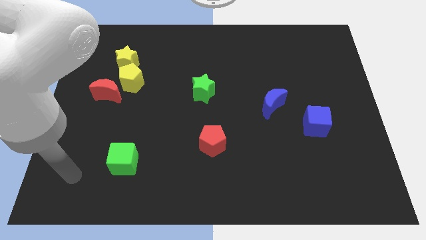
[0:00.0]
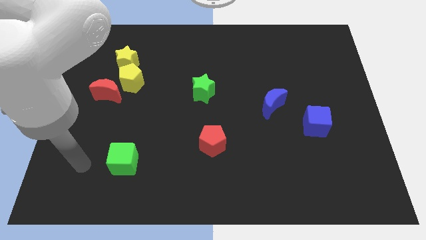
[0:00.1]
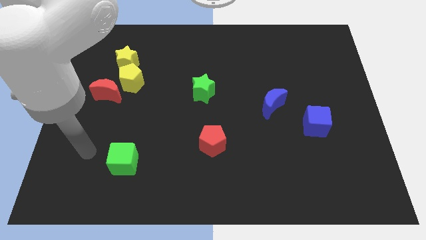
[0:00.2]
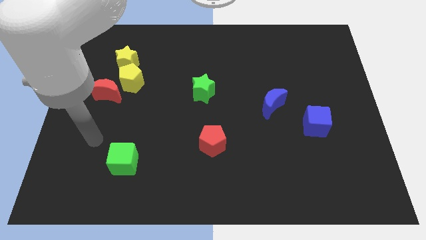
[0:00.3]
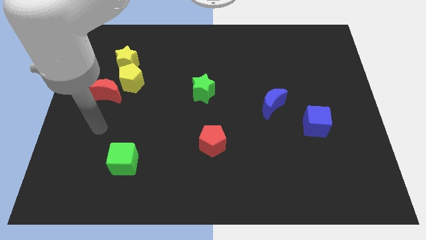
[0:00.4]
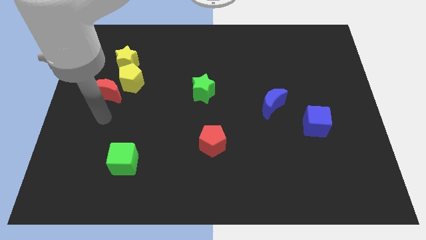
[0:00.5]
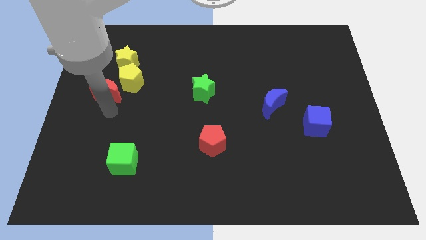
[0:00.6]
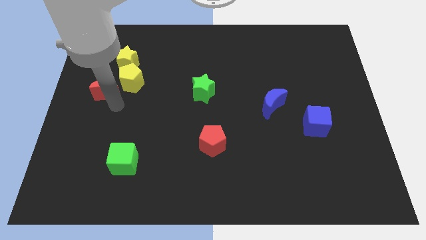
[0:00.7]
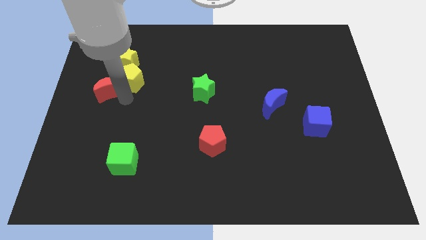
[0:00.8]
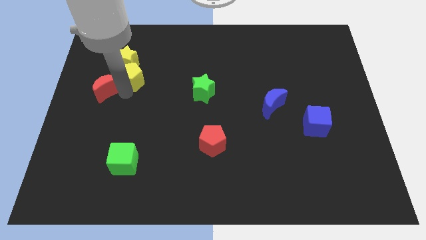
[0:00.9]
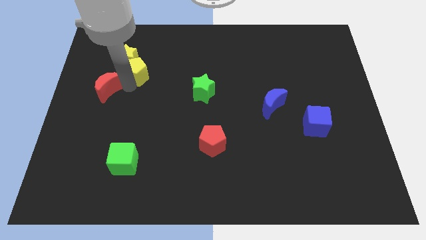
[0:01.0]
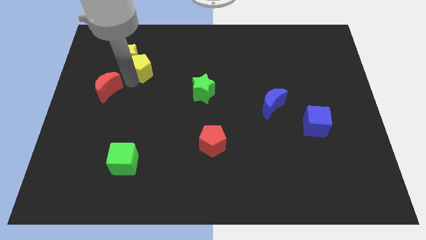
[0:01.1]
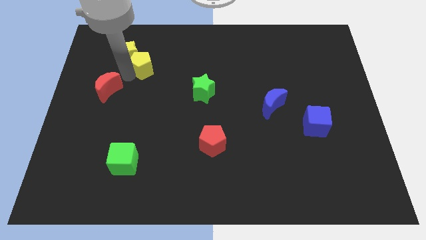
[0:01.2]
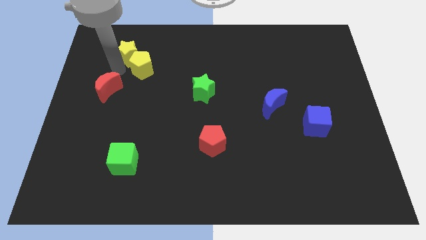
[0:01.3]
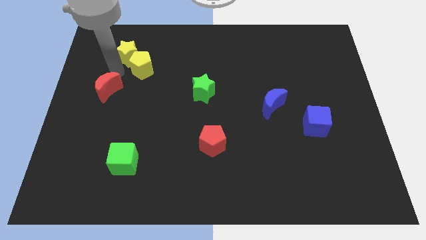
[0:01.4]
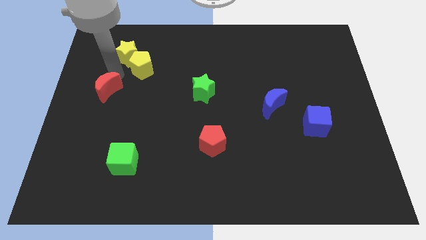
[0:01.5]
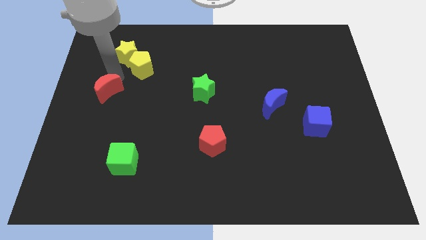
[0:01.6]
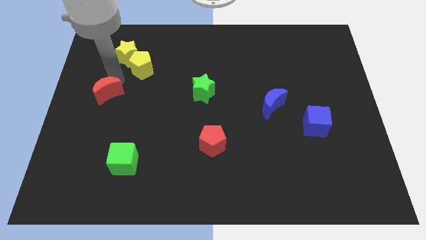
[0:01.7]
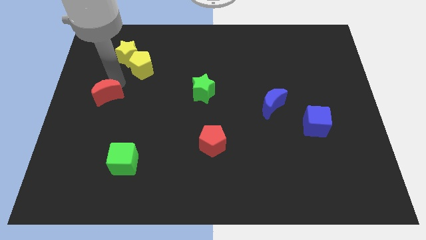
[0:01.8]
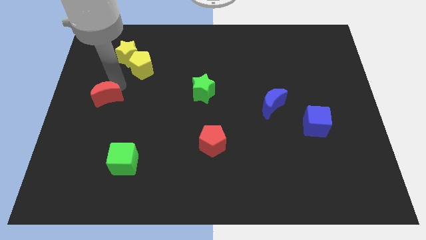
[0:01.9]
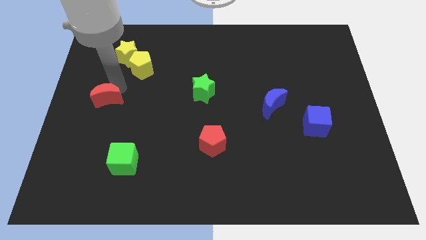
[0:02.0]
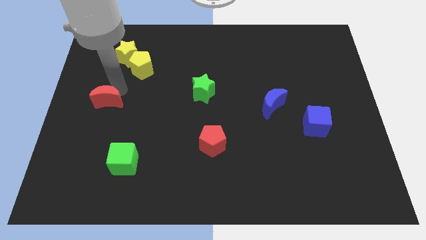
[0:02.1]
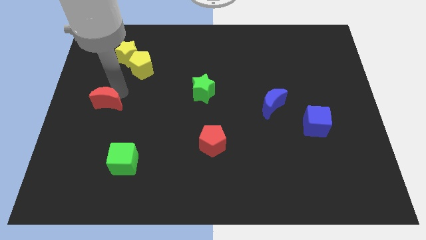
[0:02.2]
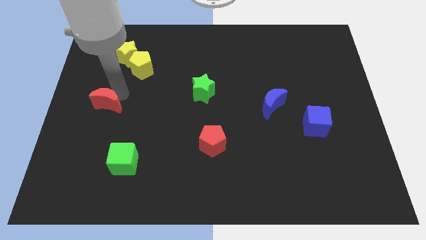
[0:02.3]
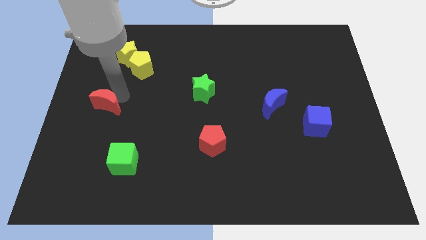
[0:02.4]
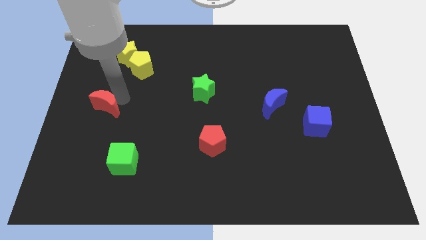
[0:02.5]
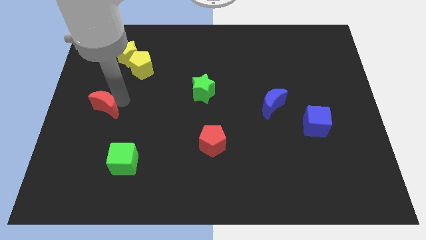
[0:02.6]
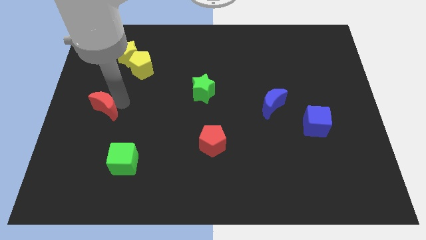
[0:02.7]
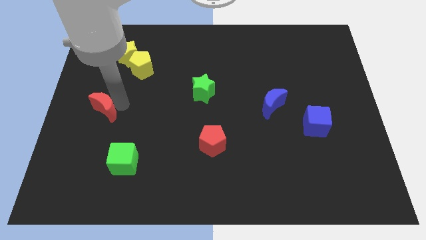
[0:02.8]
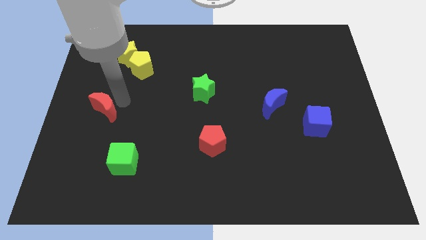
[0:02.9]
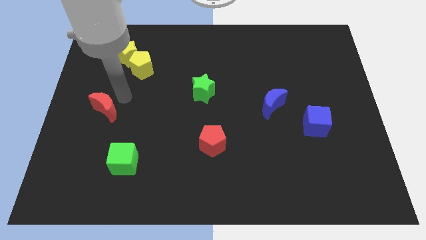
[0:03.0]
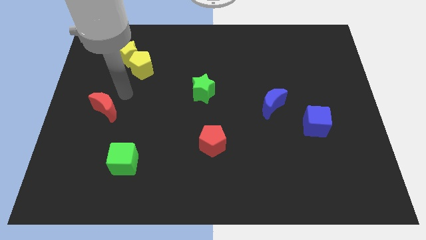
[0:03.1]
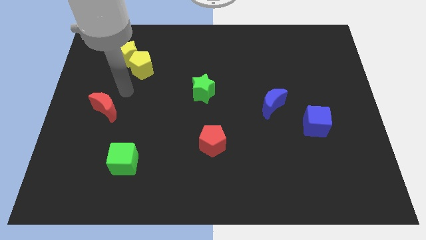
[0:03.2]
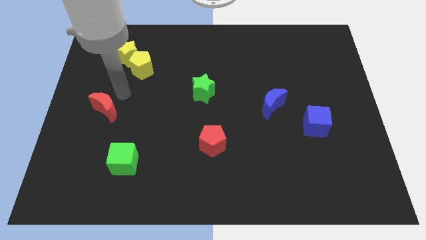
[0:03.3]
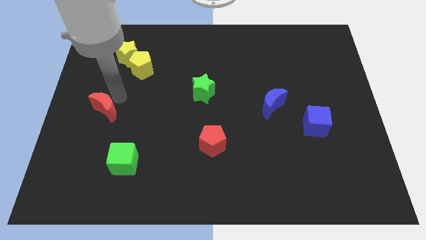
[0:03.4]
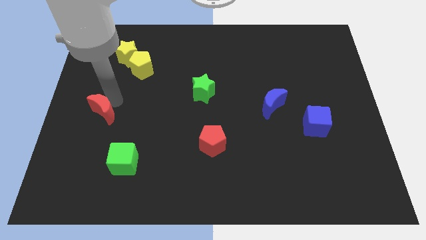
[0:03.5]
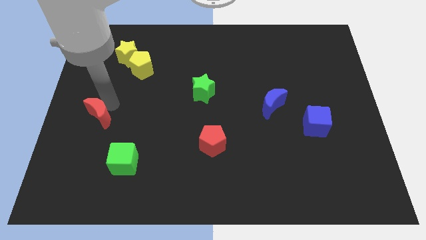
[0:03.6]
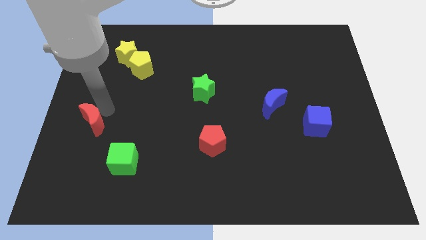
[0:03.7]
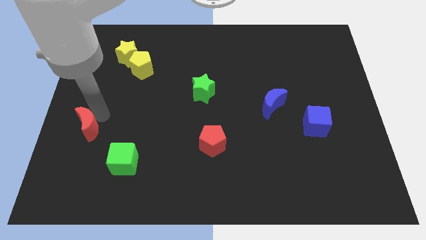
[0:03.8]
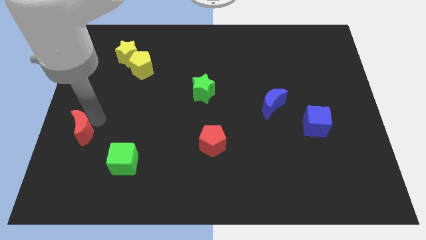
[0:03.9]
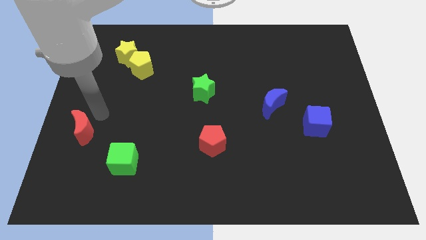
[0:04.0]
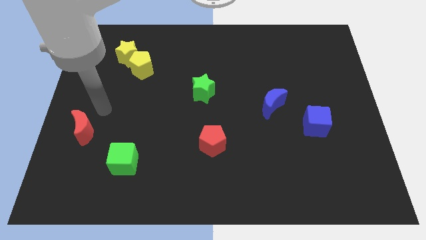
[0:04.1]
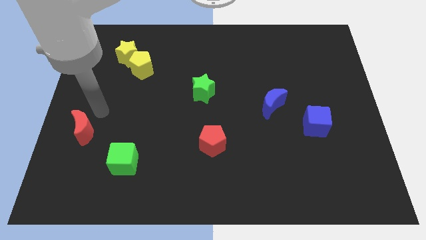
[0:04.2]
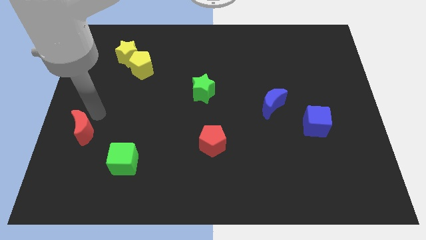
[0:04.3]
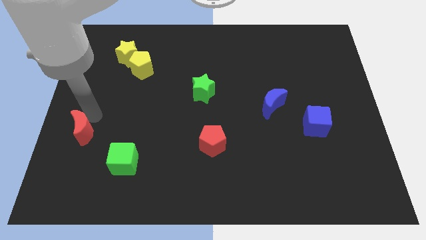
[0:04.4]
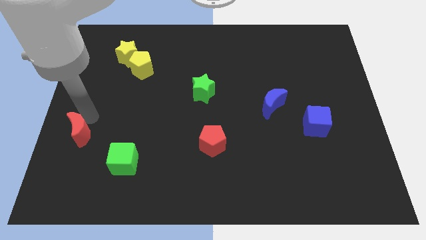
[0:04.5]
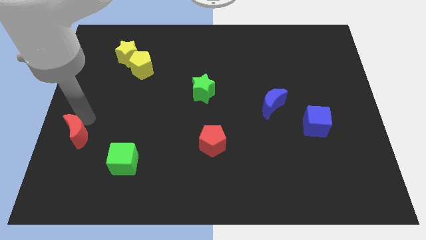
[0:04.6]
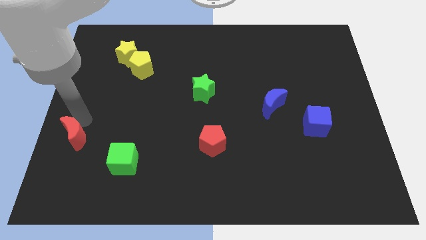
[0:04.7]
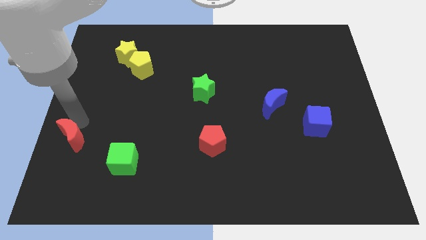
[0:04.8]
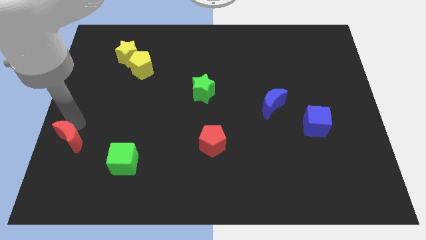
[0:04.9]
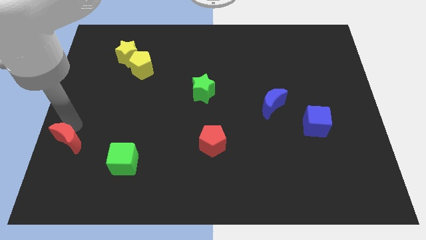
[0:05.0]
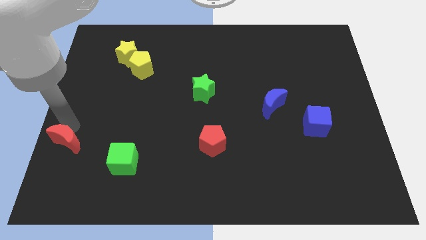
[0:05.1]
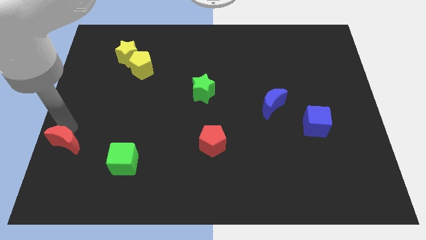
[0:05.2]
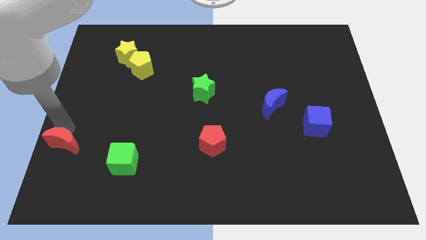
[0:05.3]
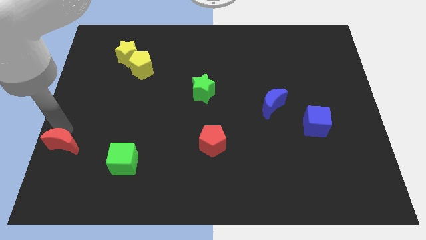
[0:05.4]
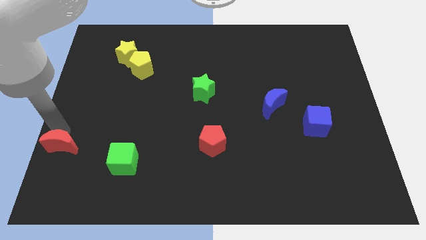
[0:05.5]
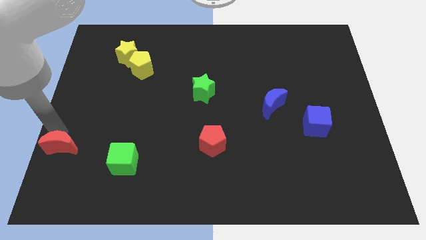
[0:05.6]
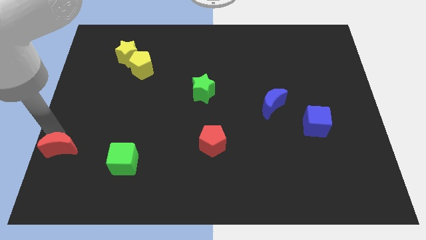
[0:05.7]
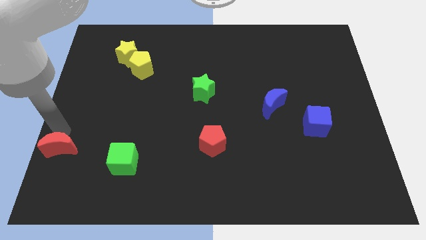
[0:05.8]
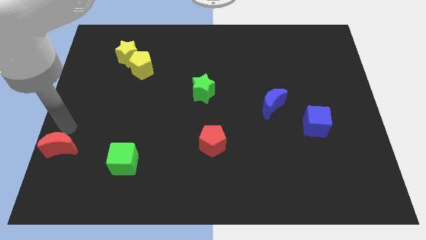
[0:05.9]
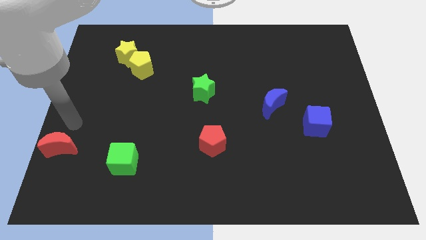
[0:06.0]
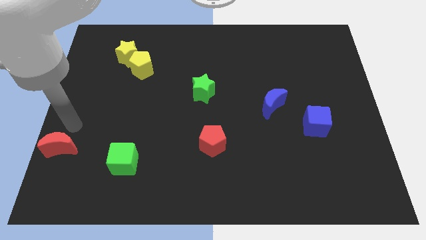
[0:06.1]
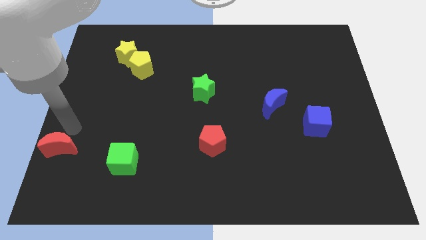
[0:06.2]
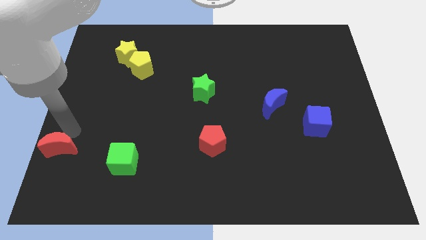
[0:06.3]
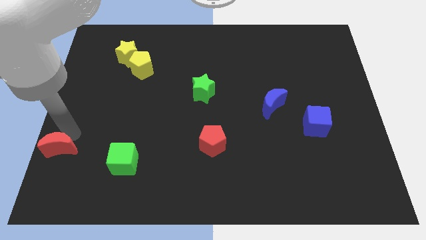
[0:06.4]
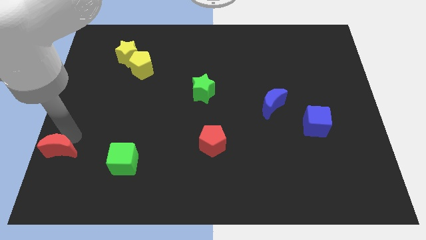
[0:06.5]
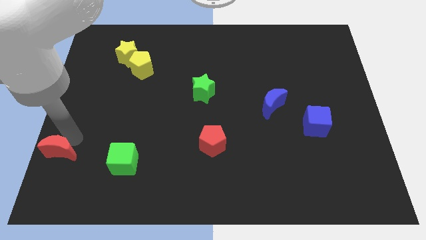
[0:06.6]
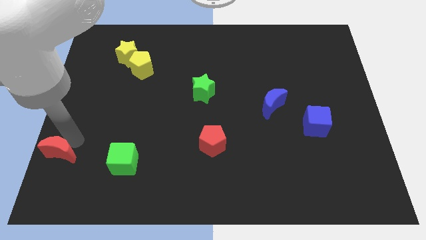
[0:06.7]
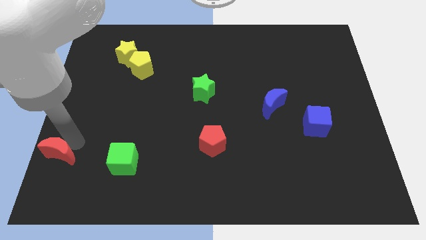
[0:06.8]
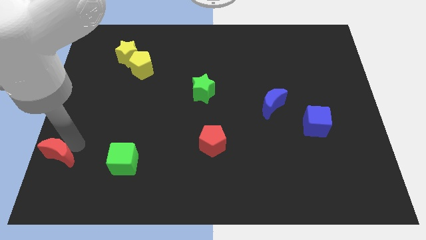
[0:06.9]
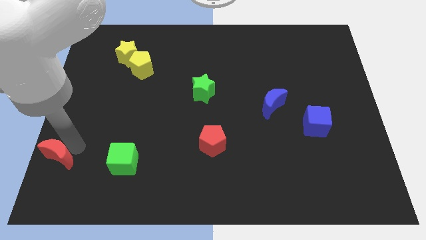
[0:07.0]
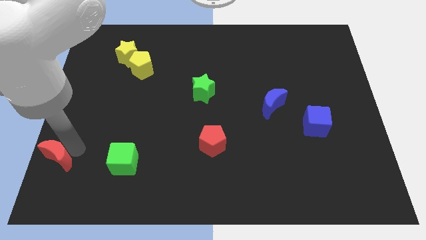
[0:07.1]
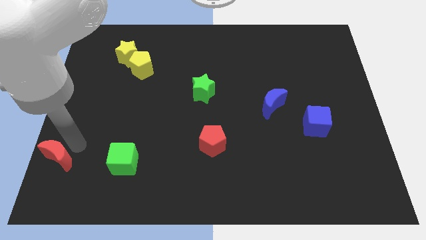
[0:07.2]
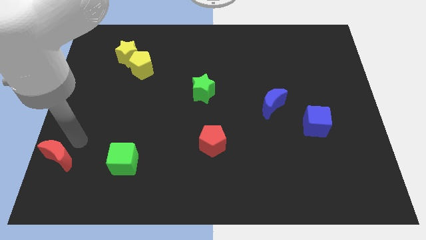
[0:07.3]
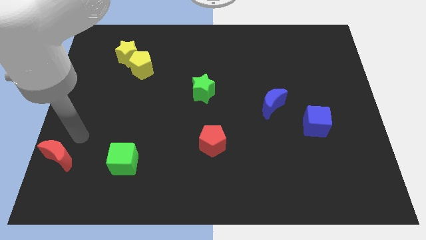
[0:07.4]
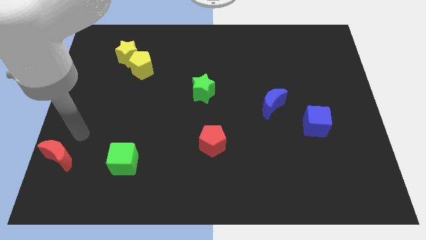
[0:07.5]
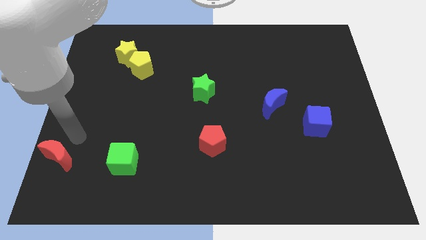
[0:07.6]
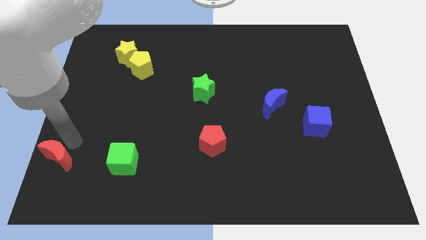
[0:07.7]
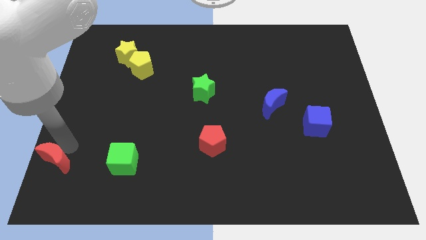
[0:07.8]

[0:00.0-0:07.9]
put the red moon to the bottom left corner
